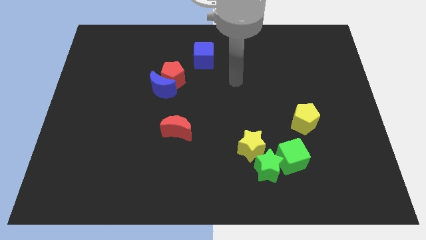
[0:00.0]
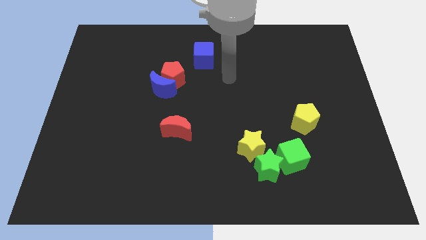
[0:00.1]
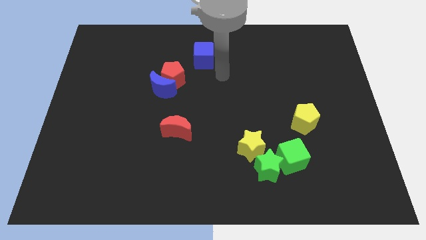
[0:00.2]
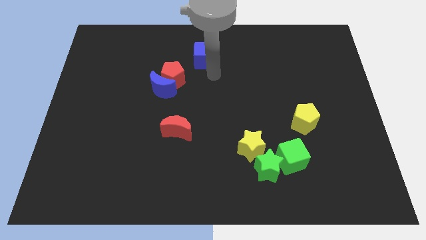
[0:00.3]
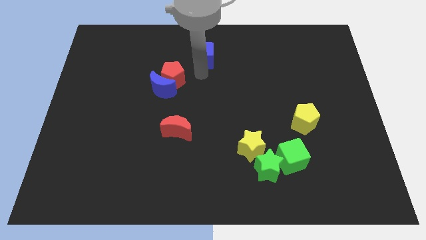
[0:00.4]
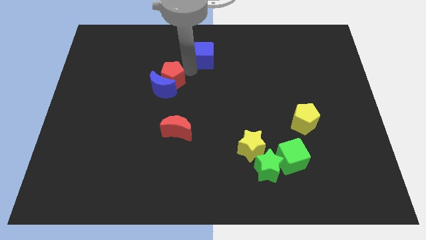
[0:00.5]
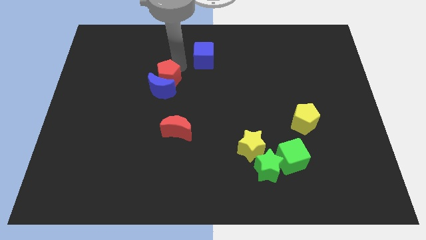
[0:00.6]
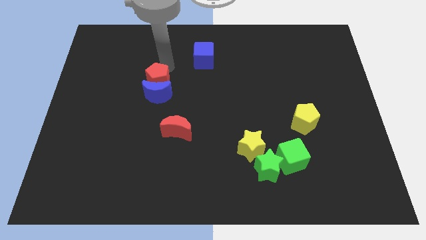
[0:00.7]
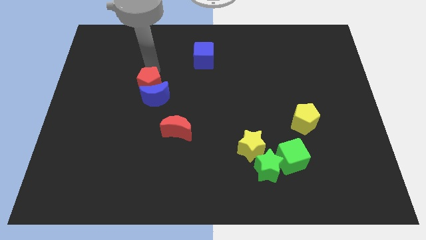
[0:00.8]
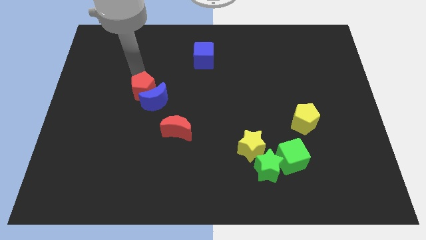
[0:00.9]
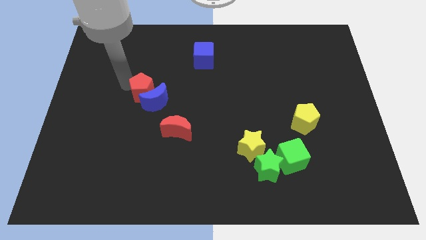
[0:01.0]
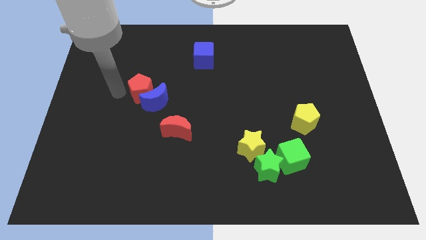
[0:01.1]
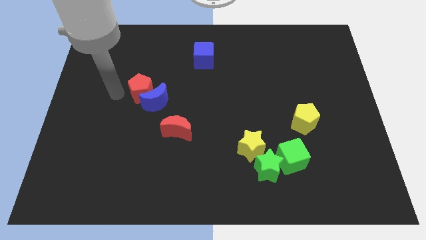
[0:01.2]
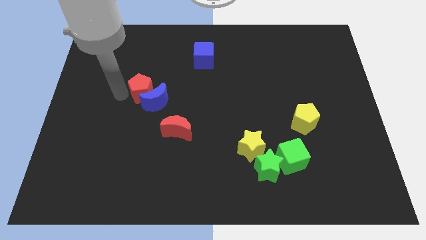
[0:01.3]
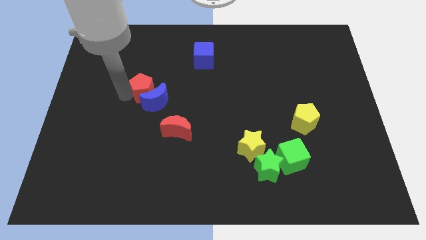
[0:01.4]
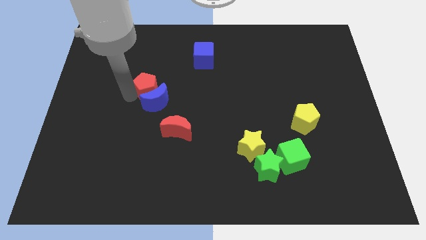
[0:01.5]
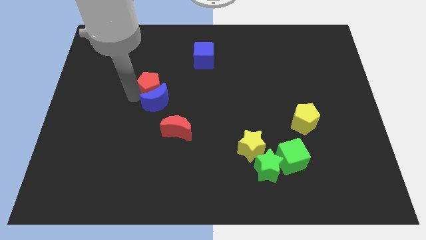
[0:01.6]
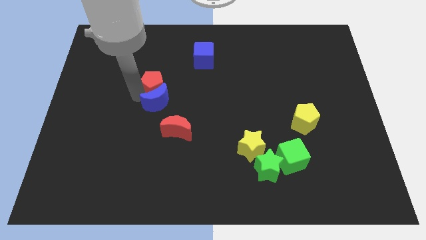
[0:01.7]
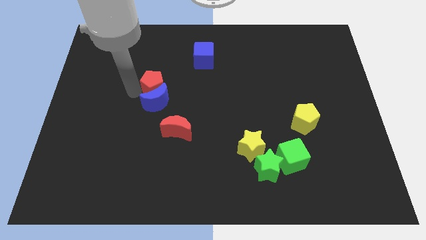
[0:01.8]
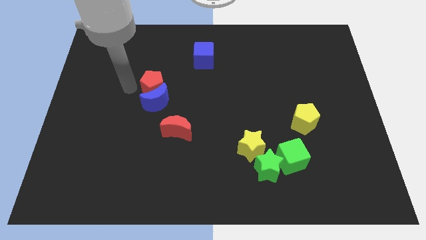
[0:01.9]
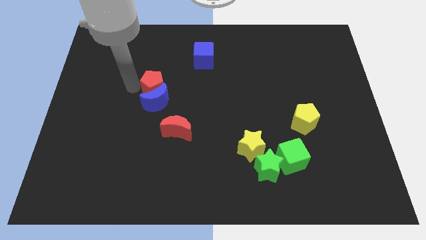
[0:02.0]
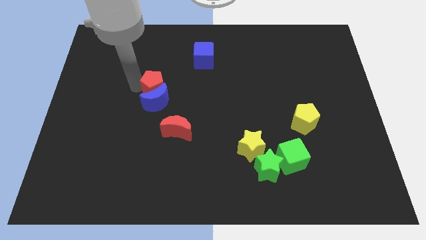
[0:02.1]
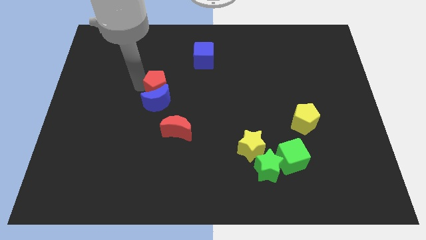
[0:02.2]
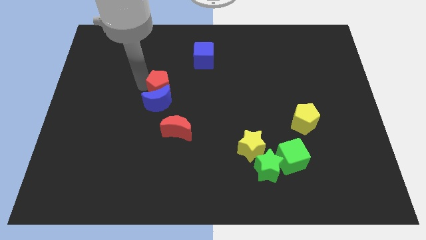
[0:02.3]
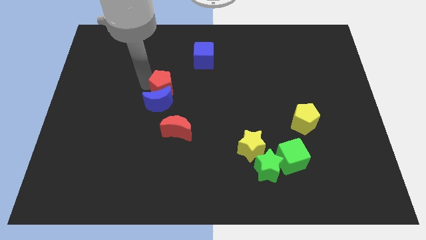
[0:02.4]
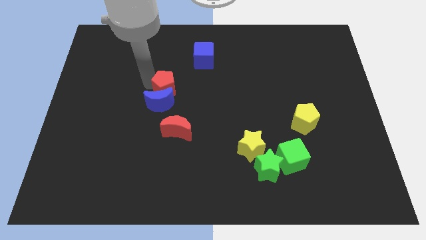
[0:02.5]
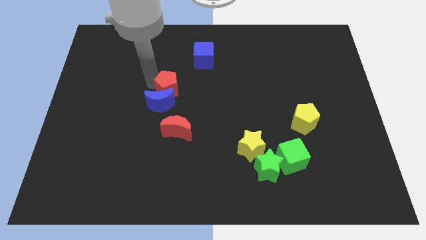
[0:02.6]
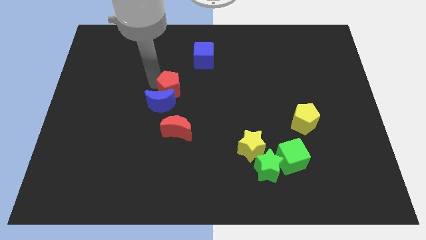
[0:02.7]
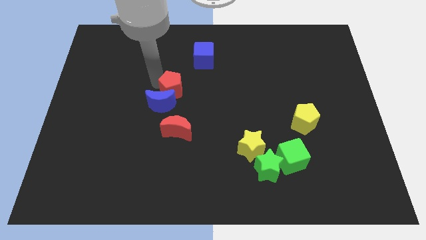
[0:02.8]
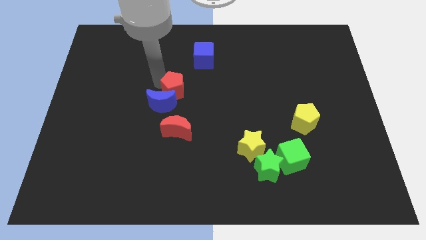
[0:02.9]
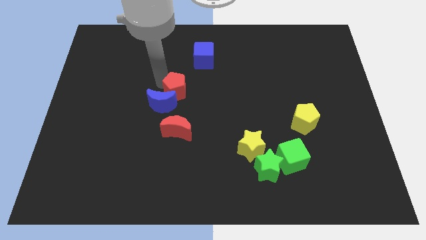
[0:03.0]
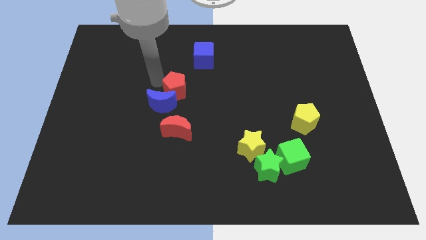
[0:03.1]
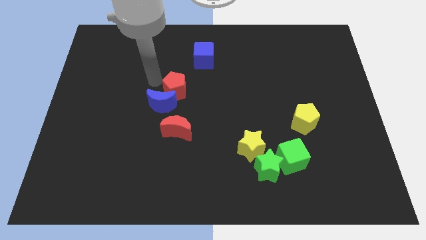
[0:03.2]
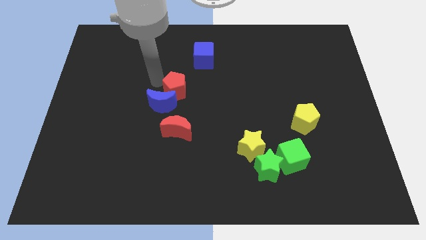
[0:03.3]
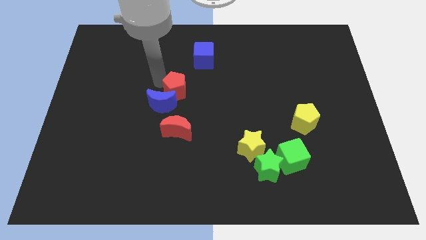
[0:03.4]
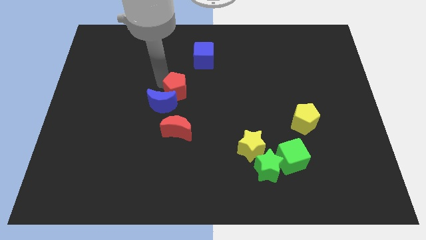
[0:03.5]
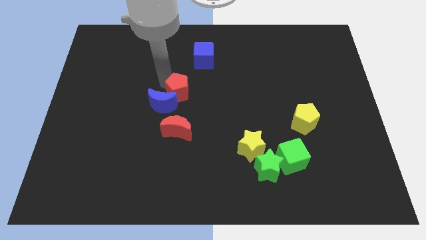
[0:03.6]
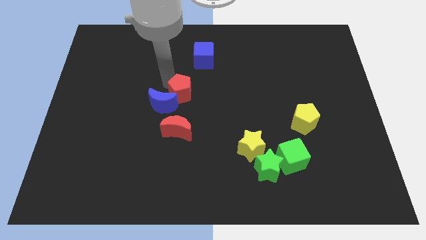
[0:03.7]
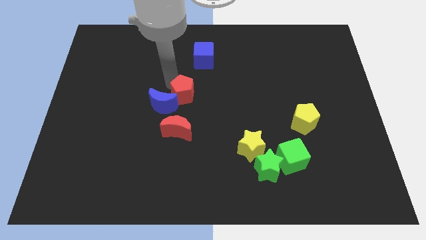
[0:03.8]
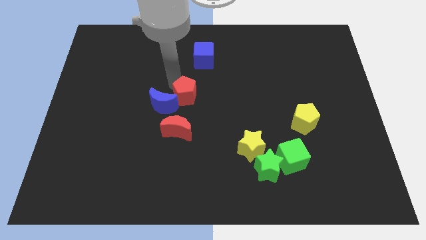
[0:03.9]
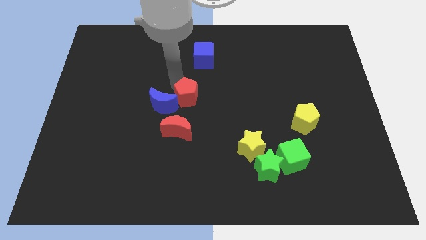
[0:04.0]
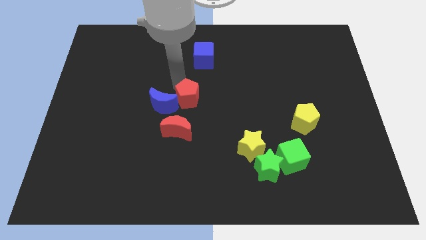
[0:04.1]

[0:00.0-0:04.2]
slightly push the red pentagon downwards and to the right diagonally

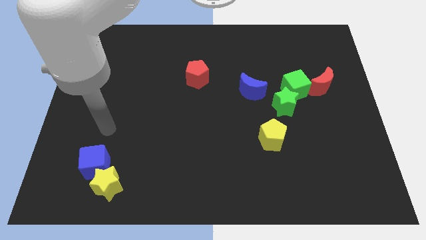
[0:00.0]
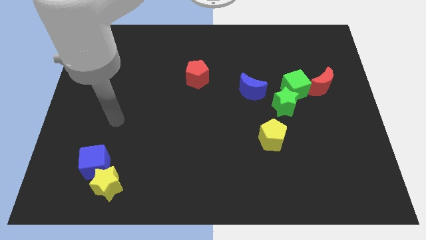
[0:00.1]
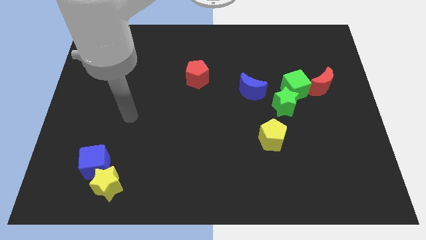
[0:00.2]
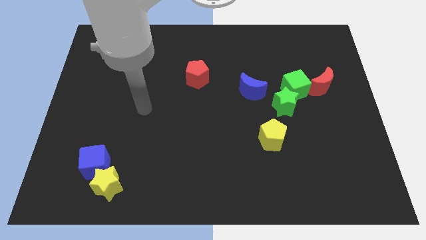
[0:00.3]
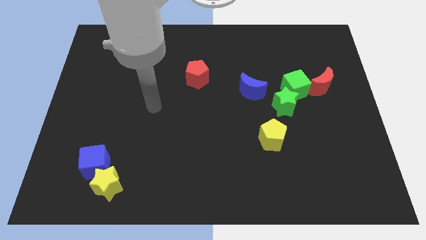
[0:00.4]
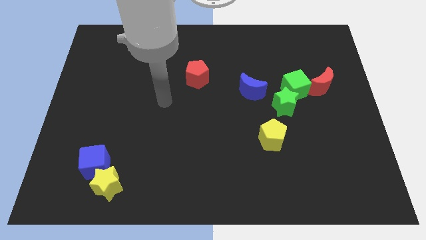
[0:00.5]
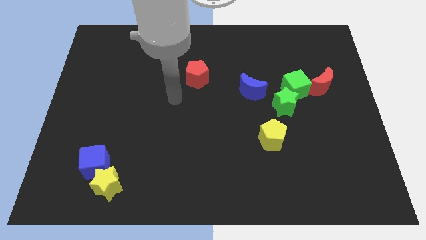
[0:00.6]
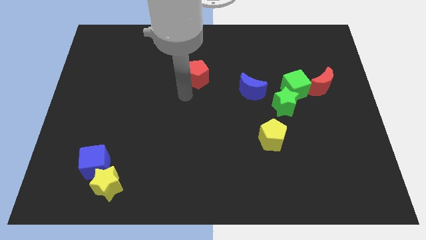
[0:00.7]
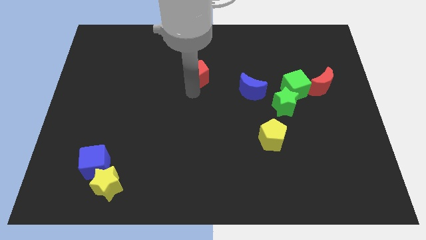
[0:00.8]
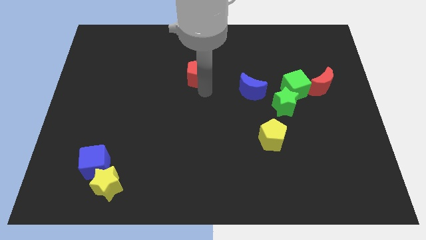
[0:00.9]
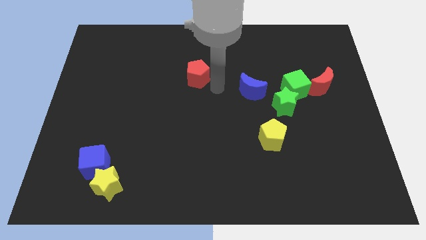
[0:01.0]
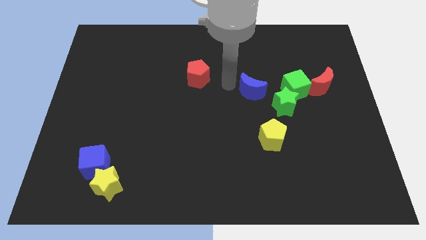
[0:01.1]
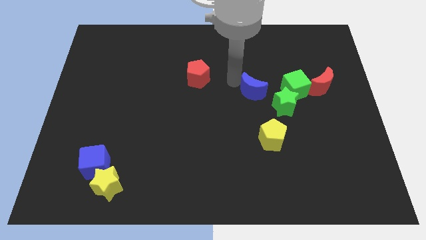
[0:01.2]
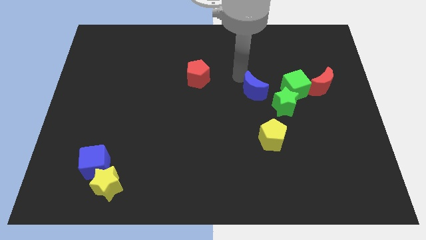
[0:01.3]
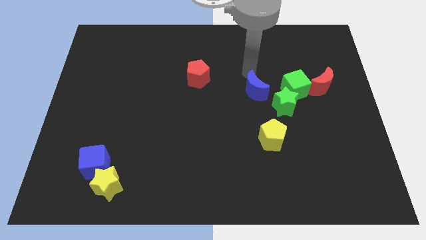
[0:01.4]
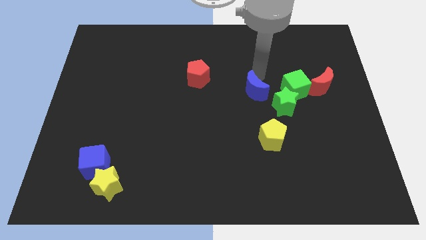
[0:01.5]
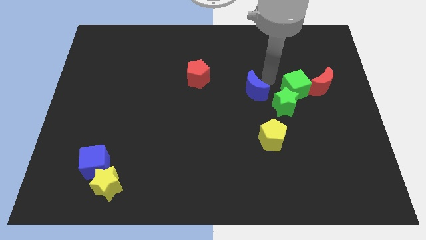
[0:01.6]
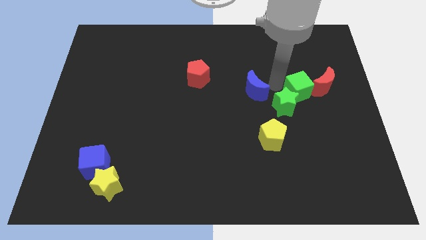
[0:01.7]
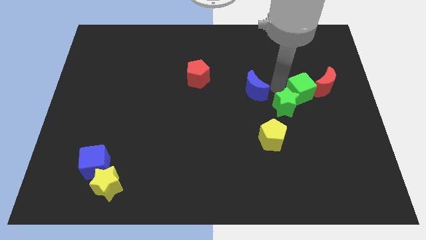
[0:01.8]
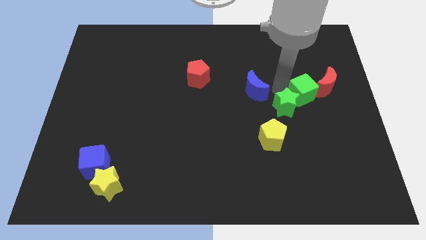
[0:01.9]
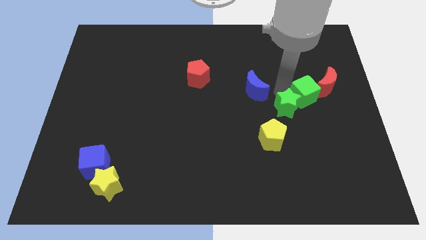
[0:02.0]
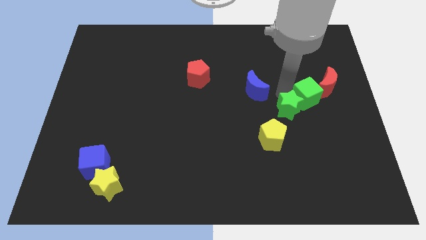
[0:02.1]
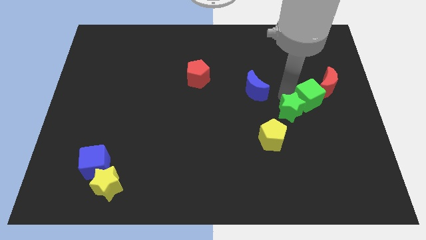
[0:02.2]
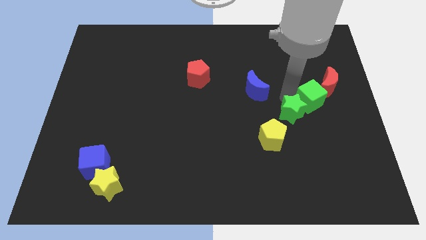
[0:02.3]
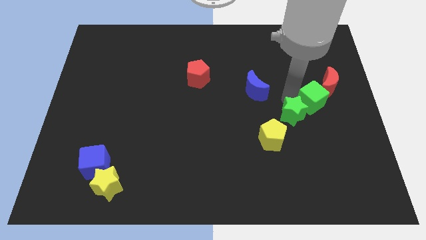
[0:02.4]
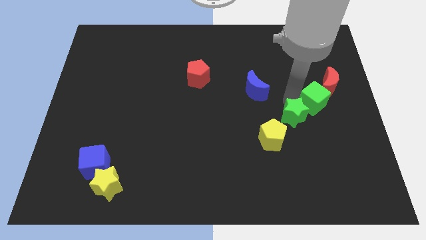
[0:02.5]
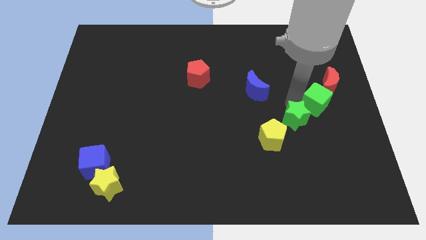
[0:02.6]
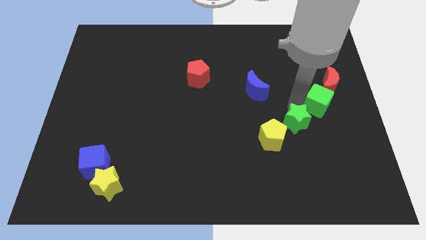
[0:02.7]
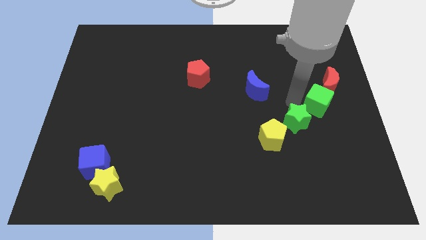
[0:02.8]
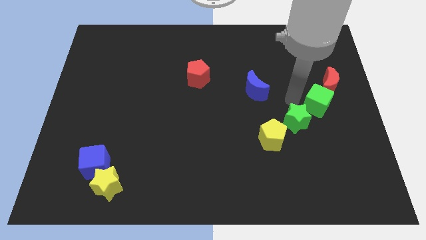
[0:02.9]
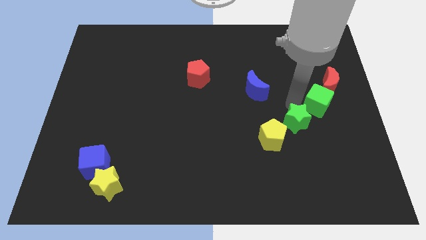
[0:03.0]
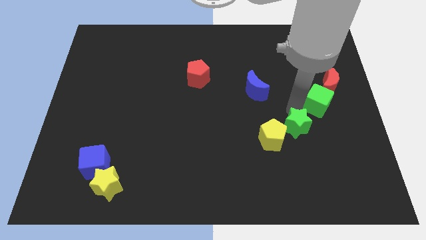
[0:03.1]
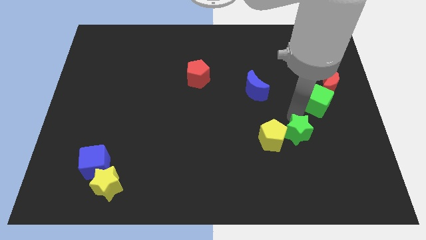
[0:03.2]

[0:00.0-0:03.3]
slightly push the green star downwards

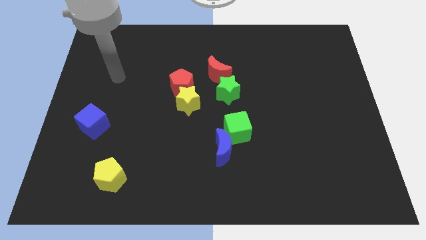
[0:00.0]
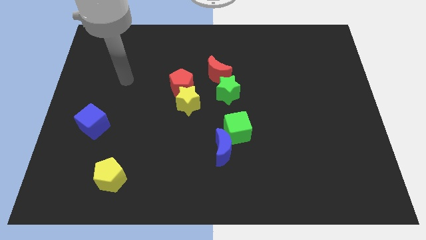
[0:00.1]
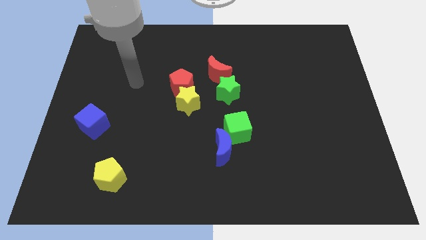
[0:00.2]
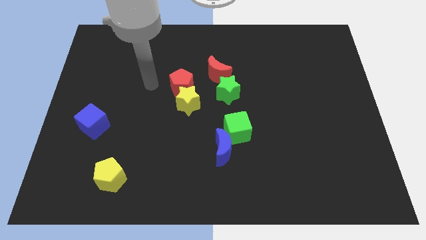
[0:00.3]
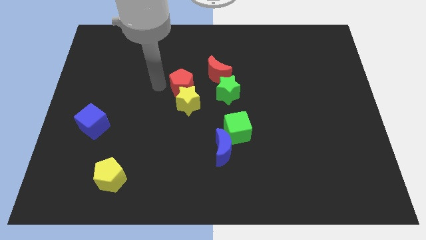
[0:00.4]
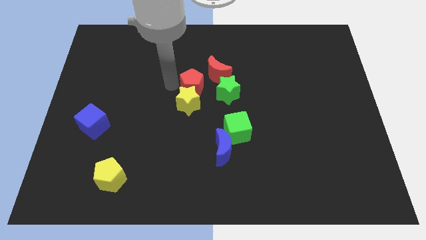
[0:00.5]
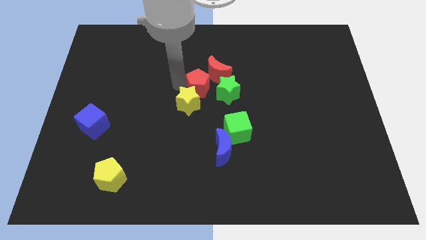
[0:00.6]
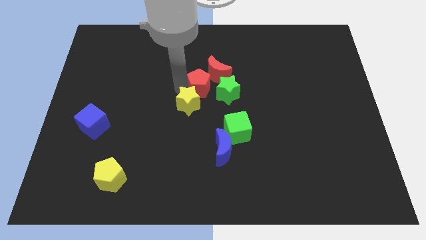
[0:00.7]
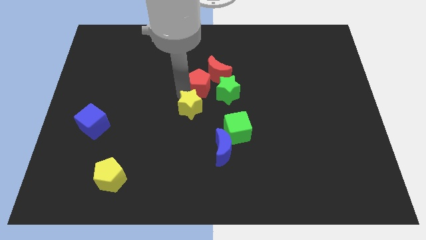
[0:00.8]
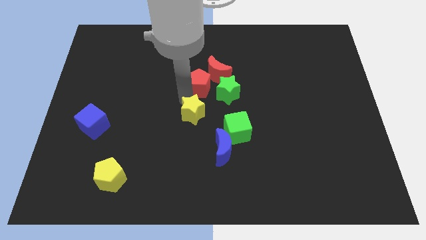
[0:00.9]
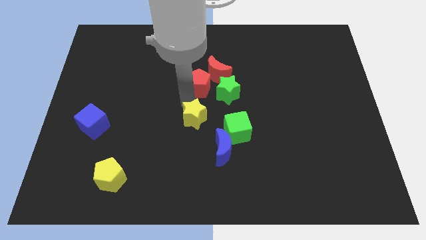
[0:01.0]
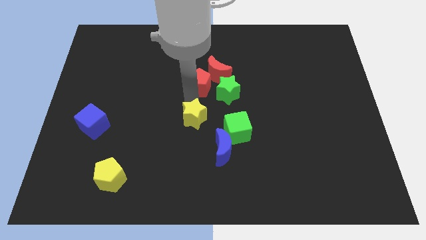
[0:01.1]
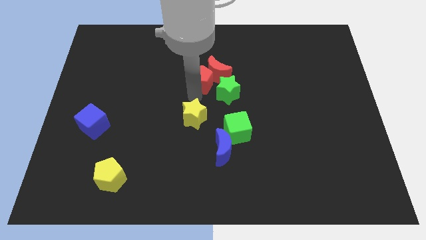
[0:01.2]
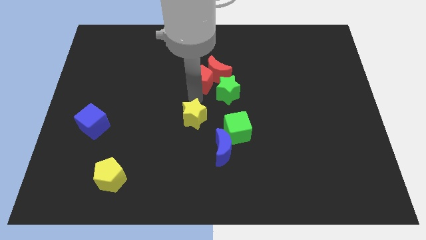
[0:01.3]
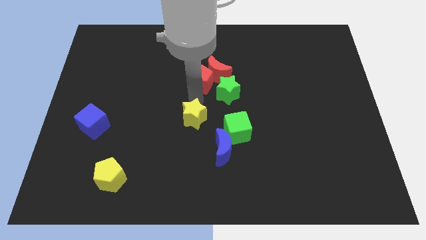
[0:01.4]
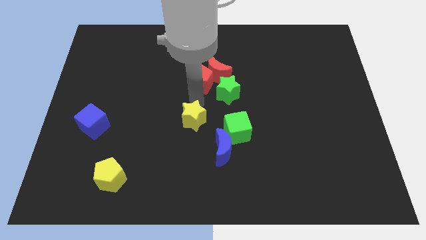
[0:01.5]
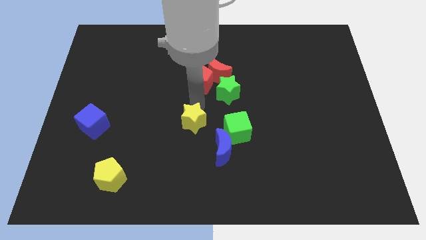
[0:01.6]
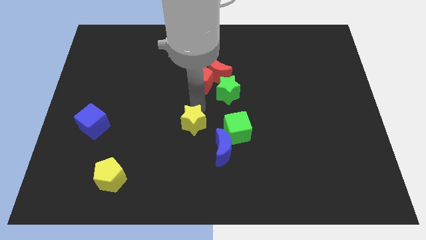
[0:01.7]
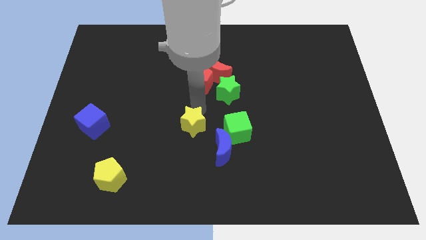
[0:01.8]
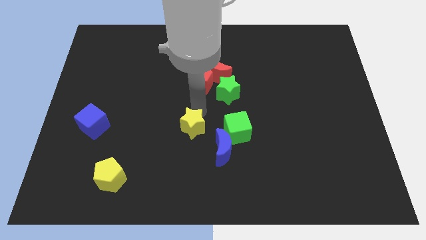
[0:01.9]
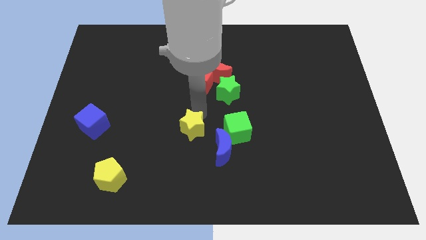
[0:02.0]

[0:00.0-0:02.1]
push the yellow star downwards a bit
